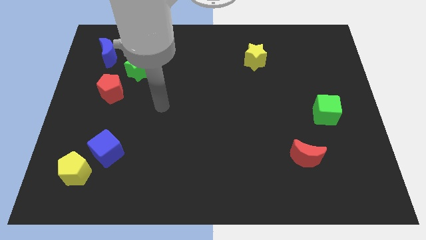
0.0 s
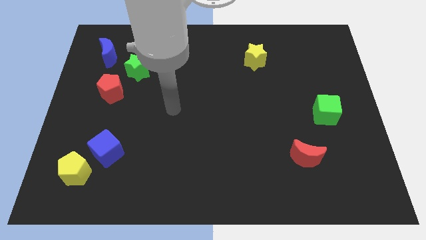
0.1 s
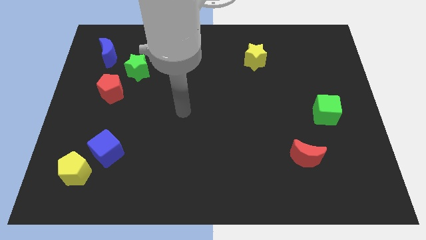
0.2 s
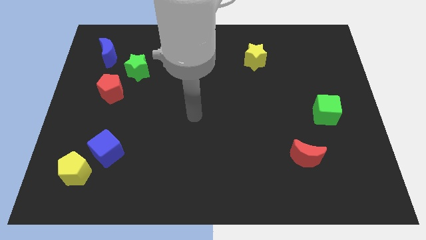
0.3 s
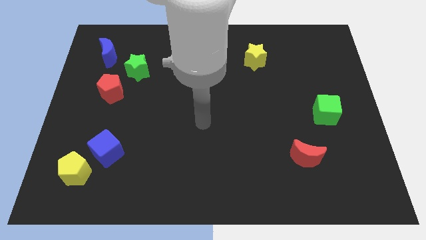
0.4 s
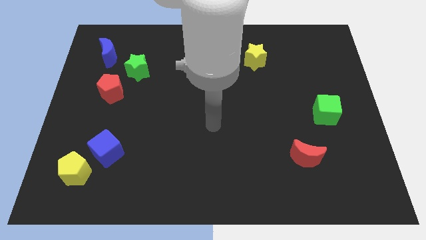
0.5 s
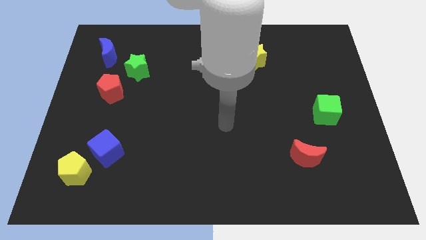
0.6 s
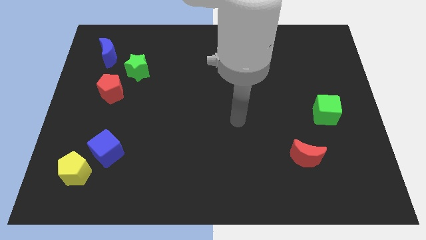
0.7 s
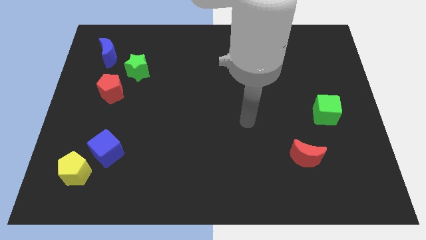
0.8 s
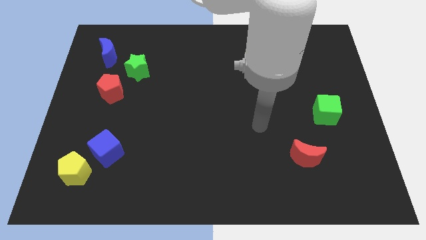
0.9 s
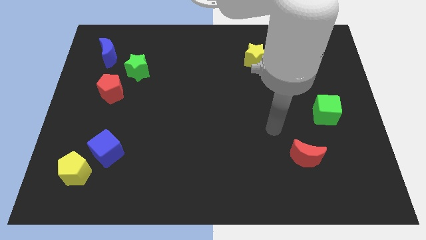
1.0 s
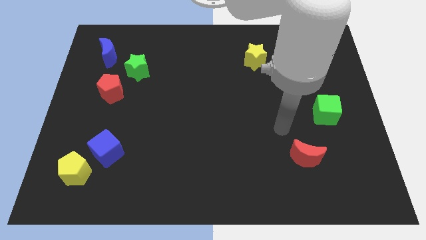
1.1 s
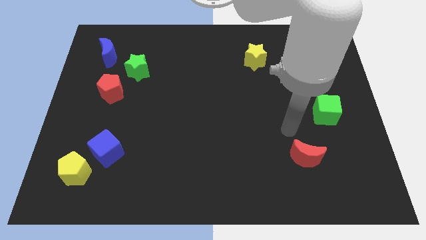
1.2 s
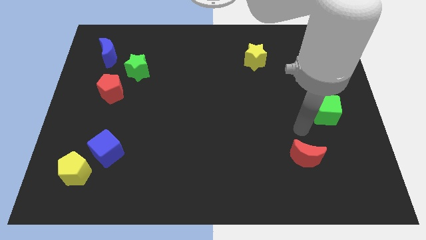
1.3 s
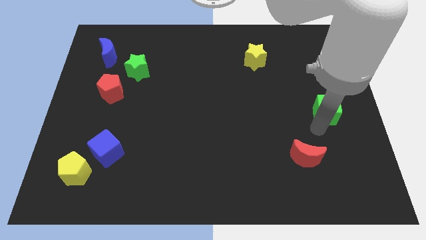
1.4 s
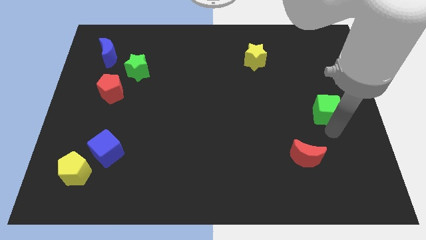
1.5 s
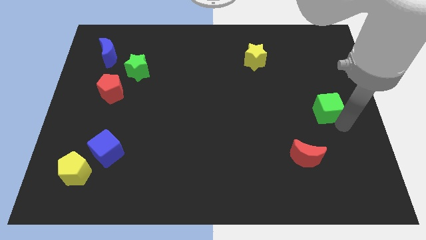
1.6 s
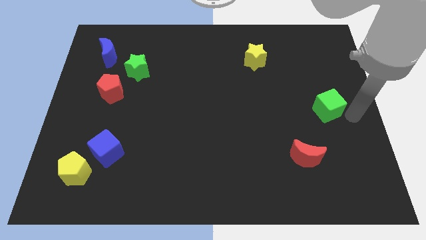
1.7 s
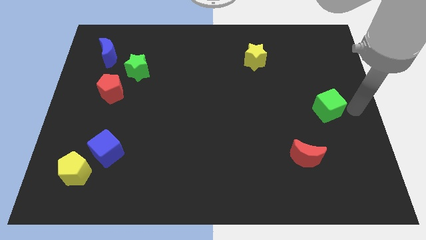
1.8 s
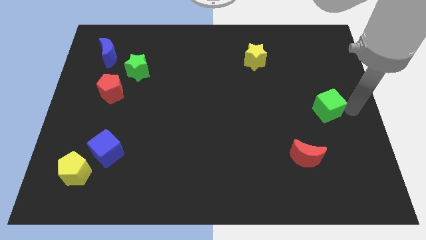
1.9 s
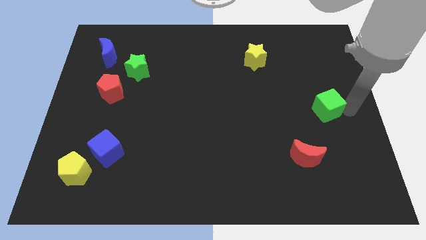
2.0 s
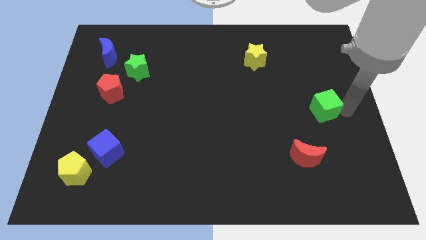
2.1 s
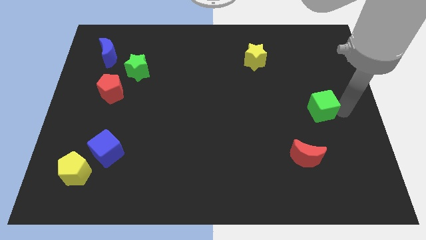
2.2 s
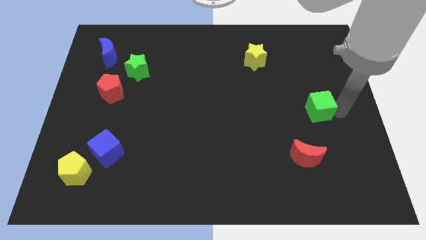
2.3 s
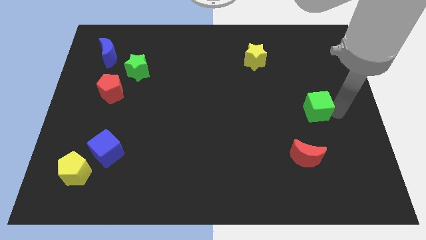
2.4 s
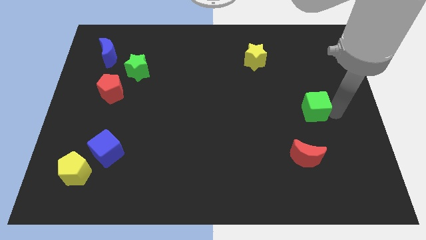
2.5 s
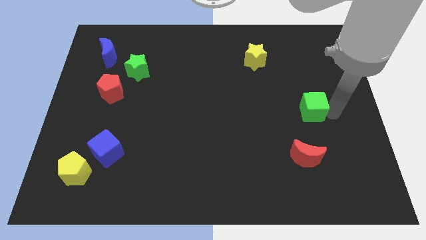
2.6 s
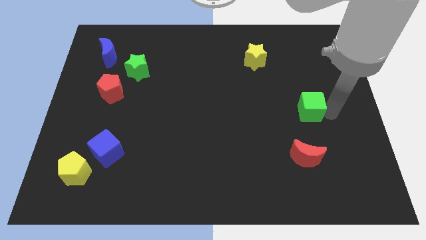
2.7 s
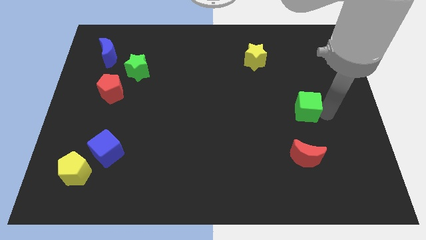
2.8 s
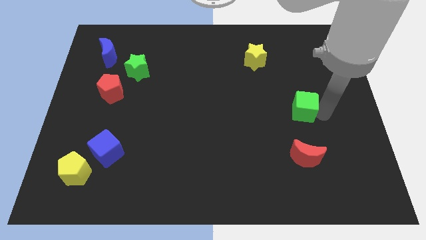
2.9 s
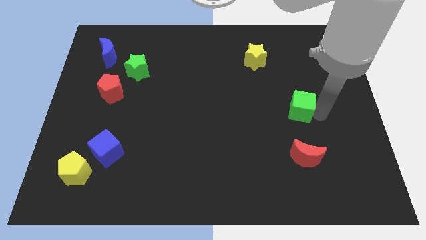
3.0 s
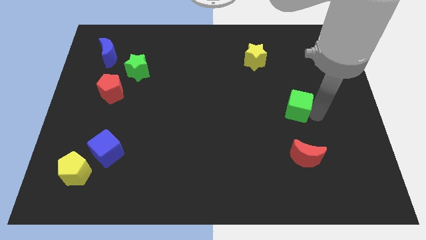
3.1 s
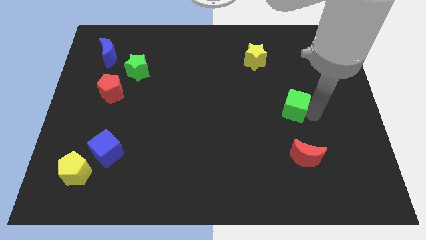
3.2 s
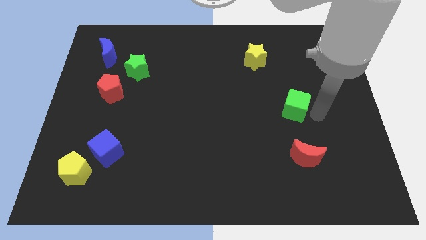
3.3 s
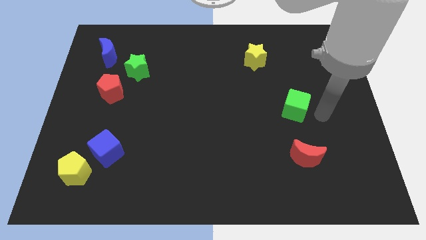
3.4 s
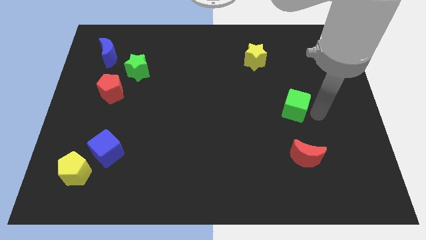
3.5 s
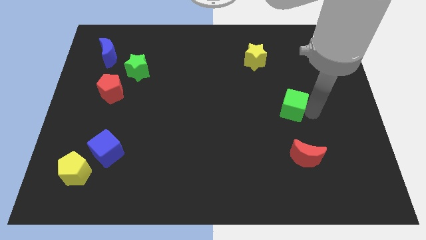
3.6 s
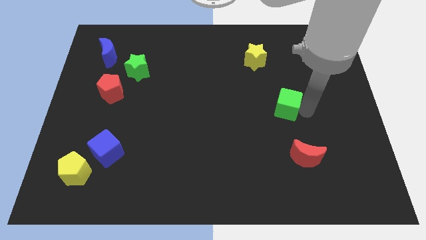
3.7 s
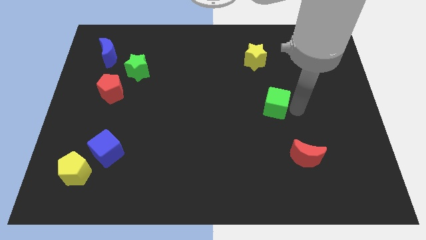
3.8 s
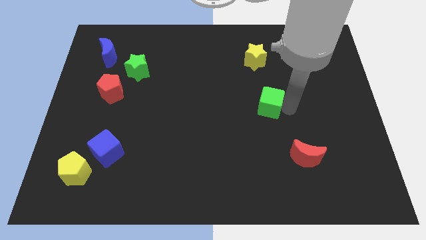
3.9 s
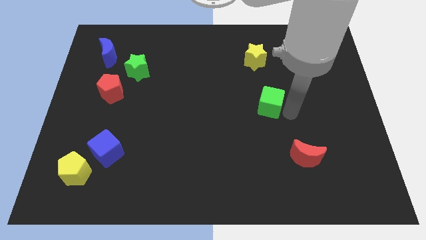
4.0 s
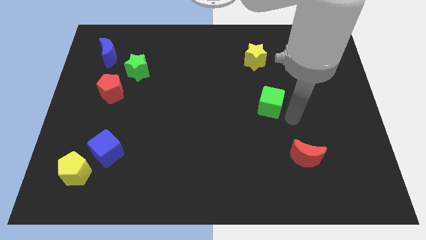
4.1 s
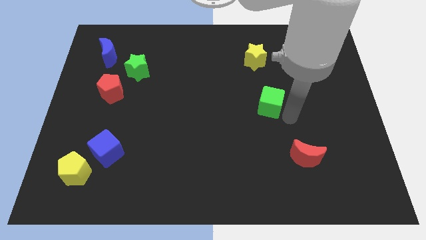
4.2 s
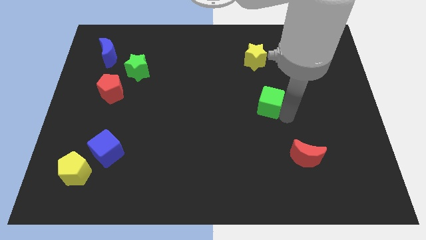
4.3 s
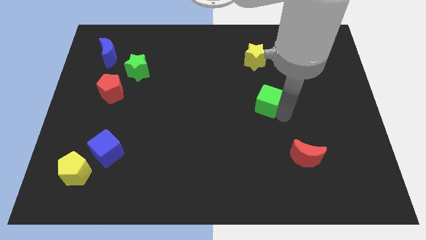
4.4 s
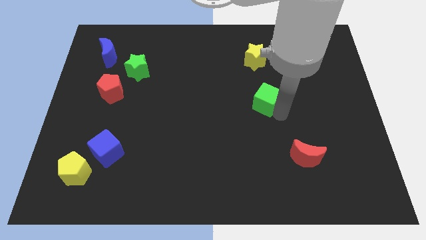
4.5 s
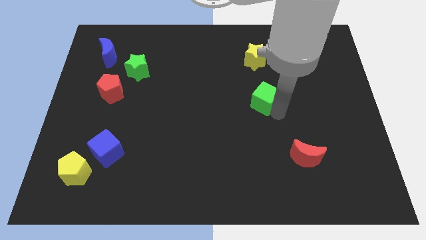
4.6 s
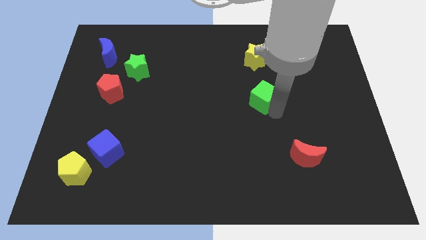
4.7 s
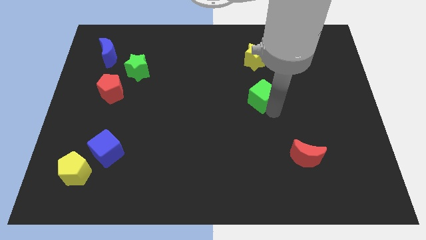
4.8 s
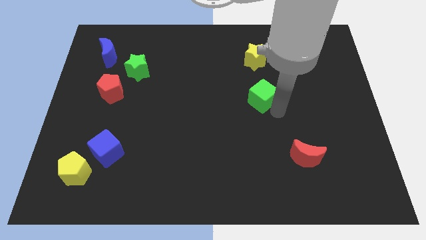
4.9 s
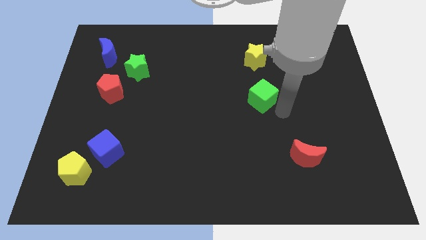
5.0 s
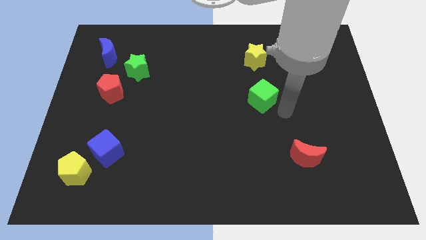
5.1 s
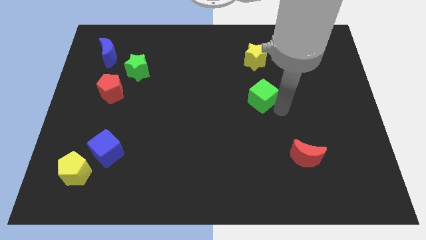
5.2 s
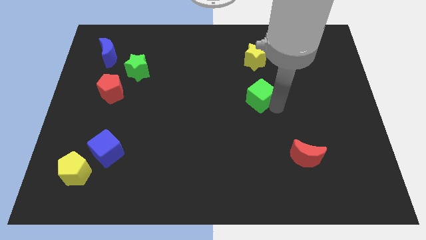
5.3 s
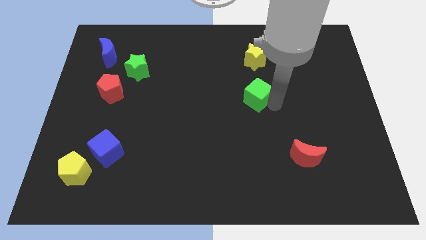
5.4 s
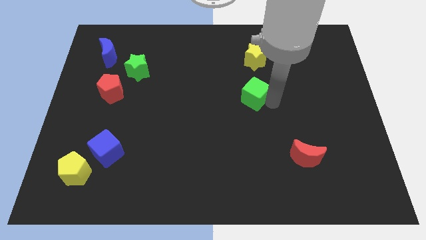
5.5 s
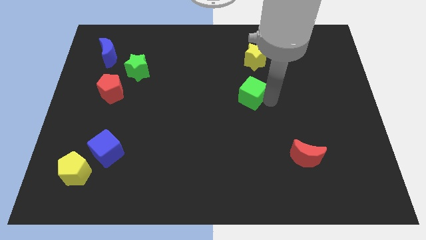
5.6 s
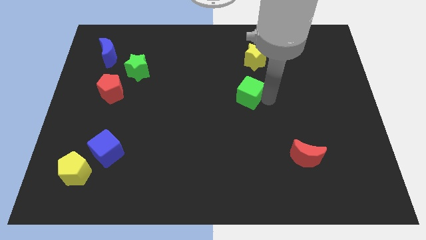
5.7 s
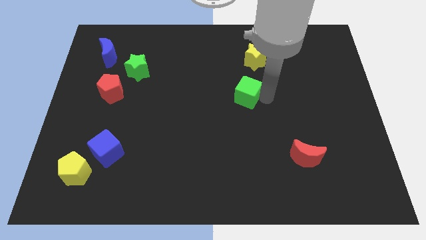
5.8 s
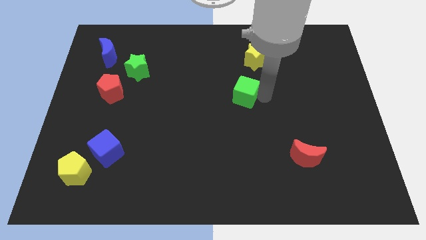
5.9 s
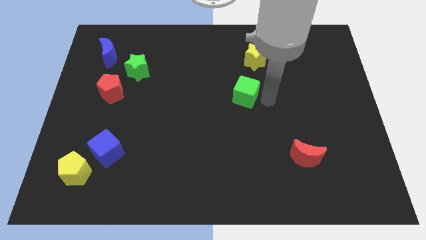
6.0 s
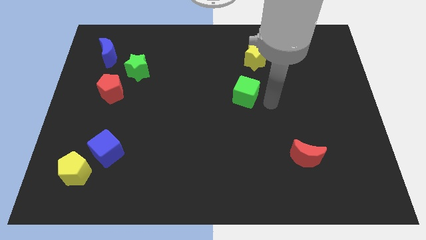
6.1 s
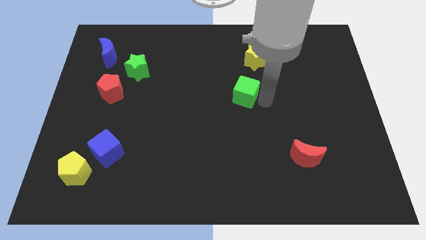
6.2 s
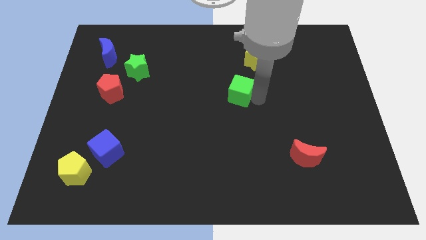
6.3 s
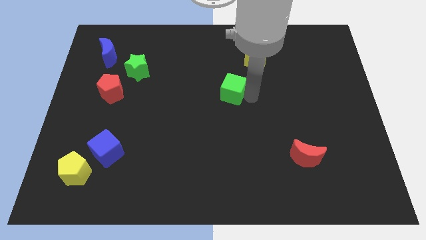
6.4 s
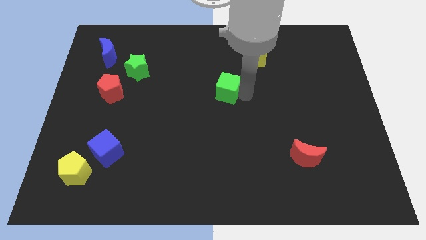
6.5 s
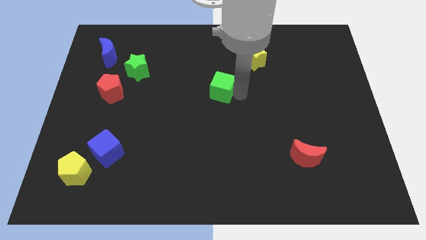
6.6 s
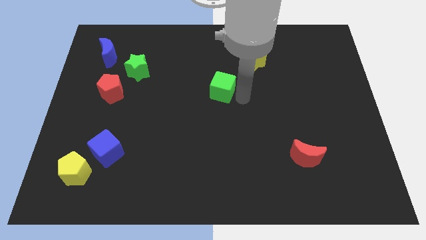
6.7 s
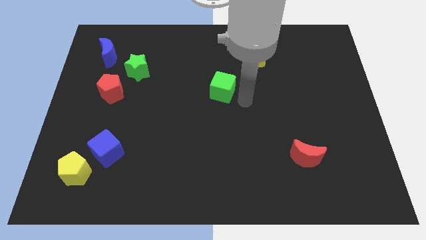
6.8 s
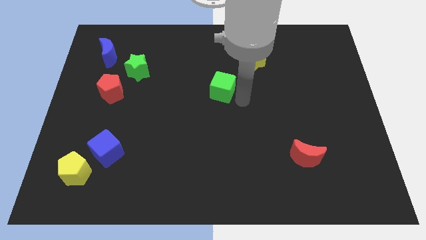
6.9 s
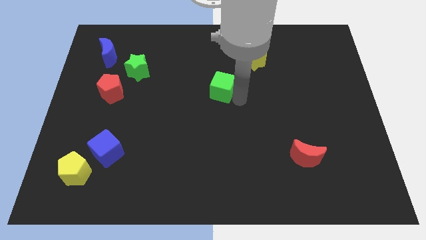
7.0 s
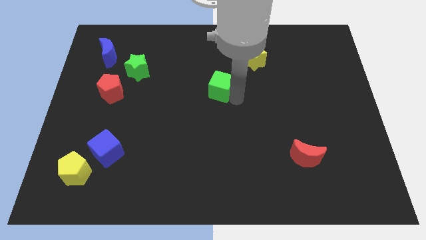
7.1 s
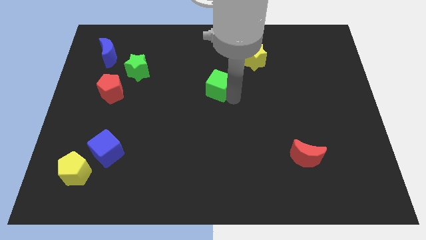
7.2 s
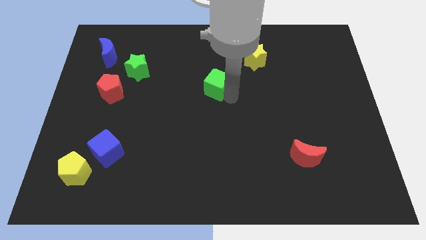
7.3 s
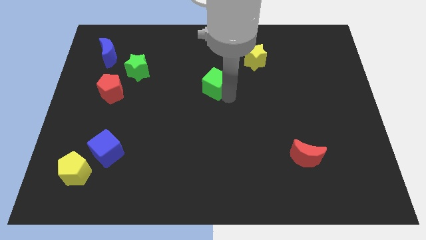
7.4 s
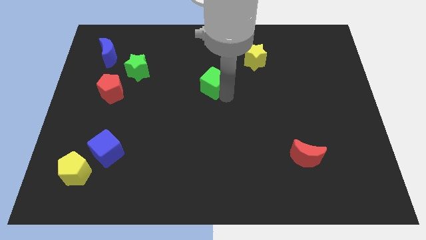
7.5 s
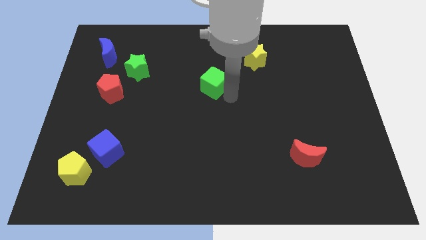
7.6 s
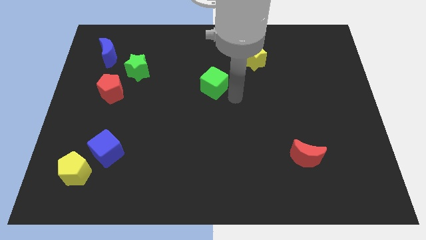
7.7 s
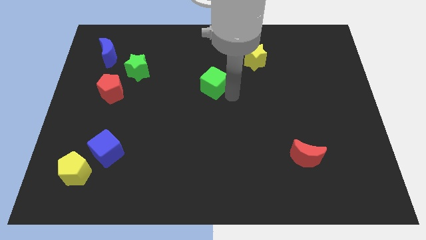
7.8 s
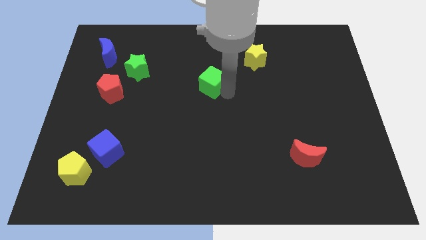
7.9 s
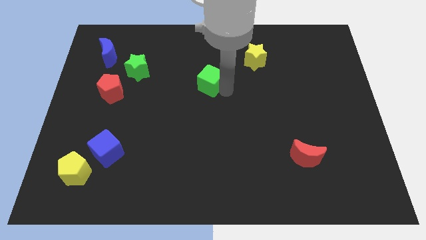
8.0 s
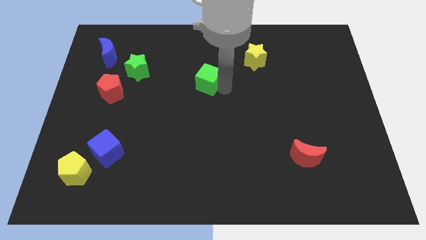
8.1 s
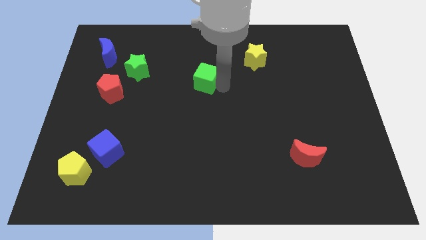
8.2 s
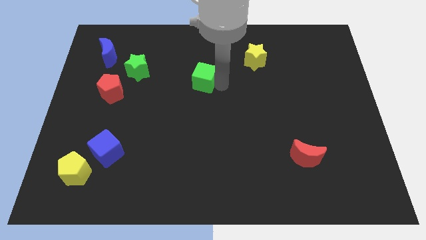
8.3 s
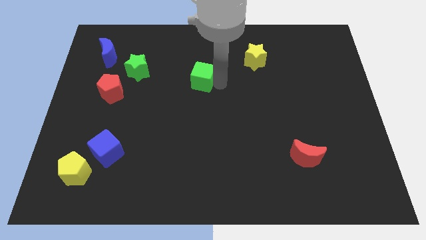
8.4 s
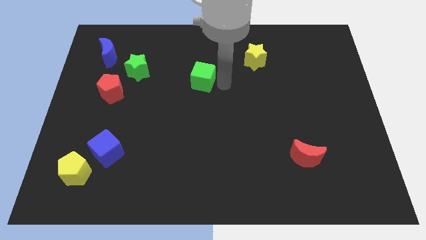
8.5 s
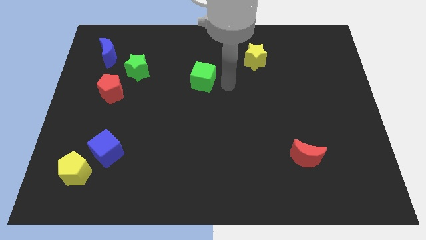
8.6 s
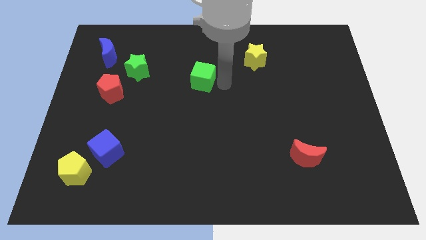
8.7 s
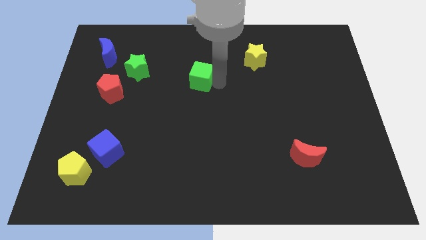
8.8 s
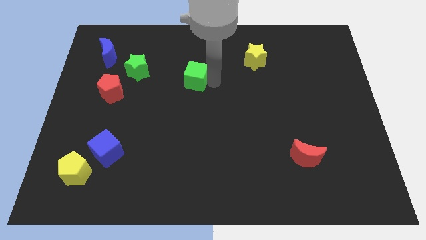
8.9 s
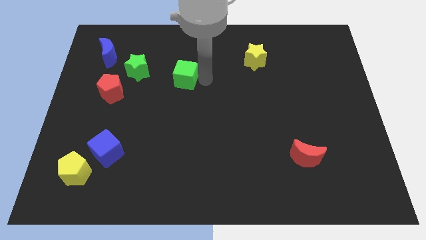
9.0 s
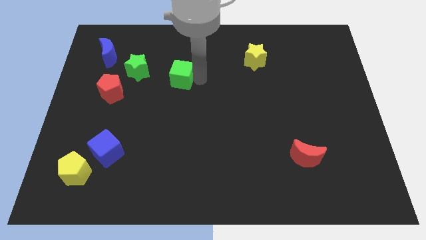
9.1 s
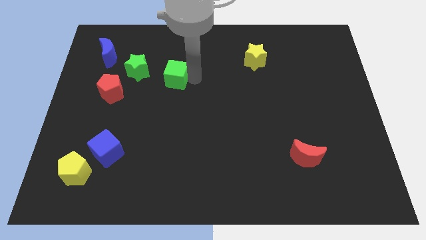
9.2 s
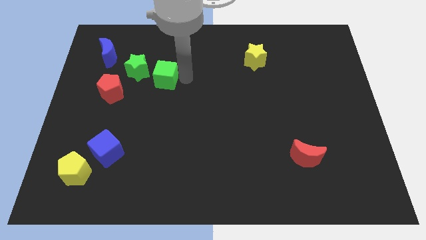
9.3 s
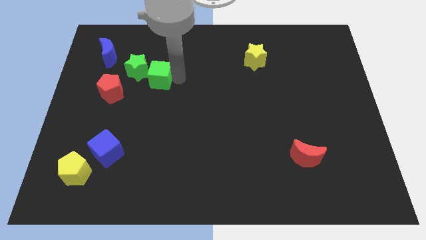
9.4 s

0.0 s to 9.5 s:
slide the green cube next to the green star
